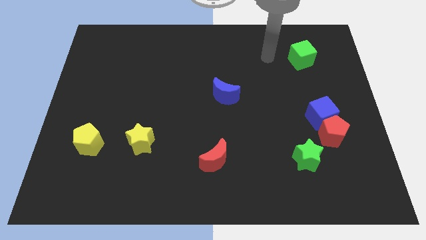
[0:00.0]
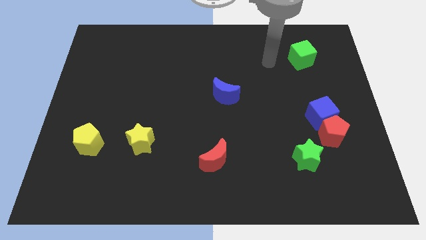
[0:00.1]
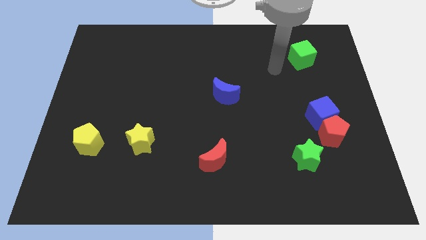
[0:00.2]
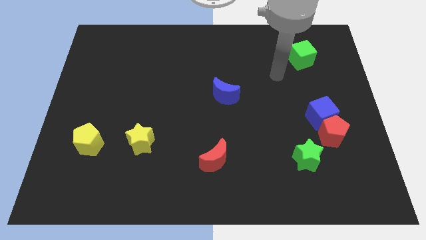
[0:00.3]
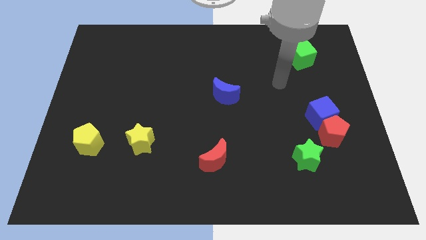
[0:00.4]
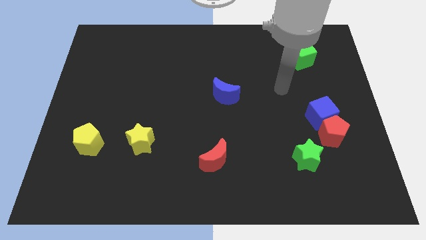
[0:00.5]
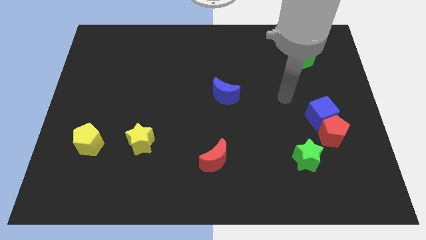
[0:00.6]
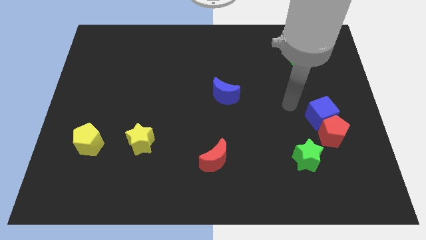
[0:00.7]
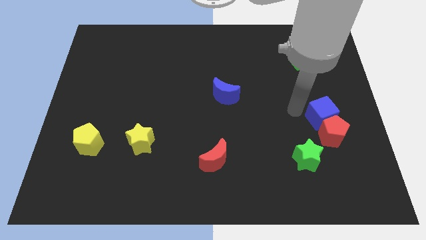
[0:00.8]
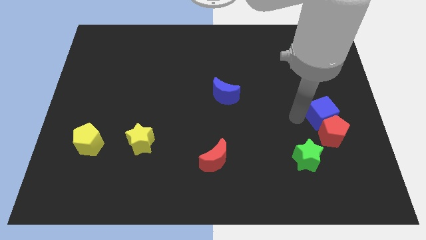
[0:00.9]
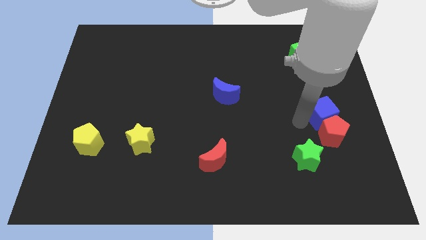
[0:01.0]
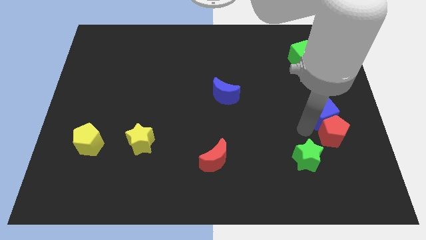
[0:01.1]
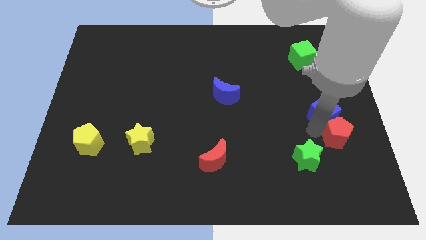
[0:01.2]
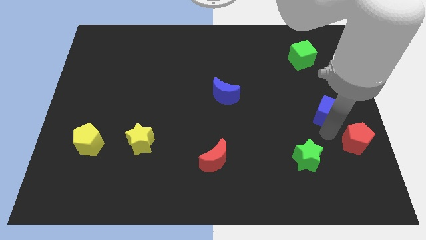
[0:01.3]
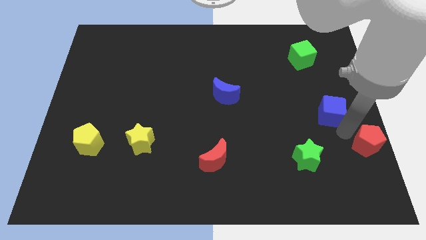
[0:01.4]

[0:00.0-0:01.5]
pull the blue cube apart from the red pentagon

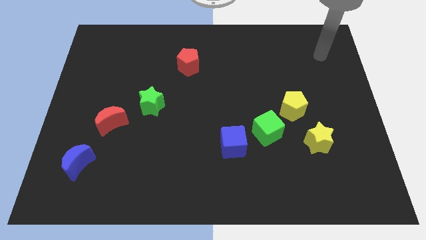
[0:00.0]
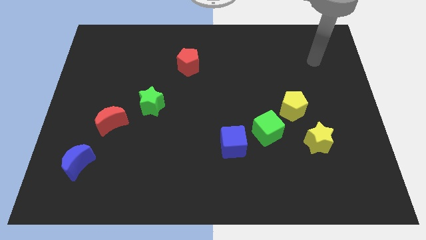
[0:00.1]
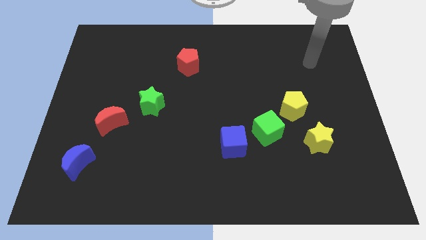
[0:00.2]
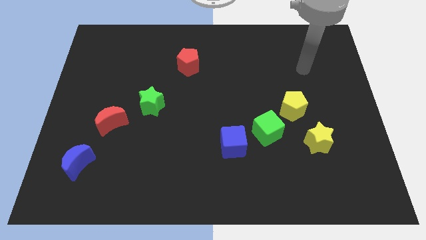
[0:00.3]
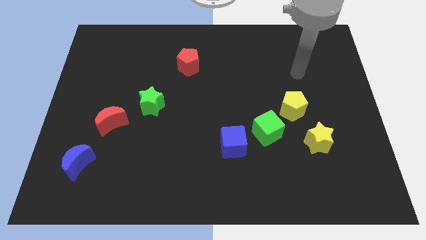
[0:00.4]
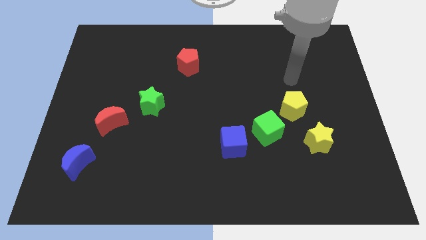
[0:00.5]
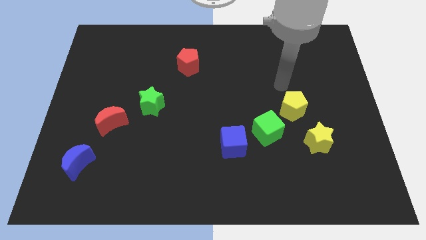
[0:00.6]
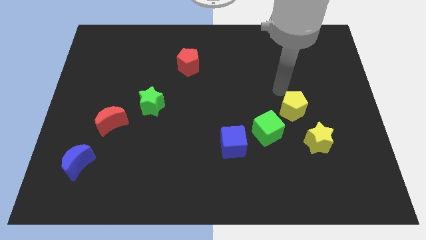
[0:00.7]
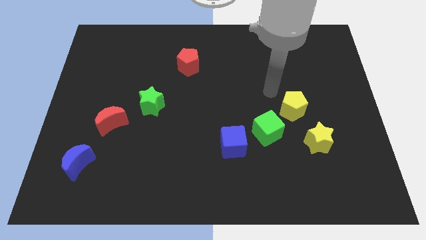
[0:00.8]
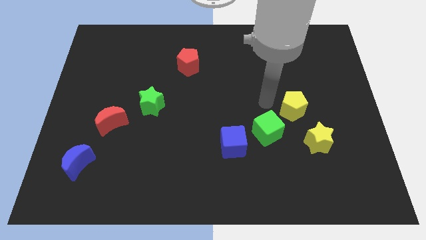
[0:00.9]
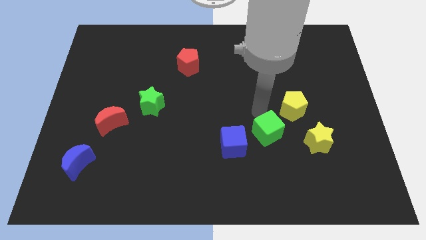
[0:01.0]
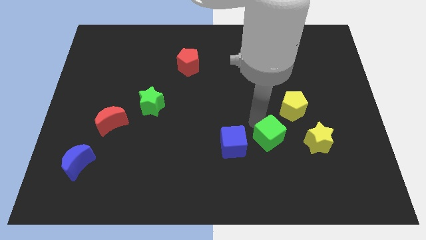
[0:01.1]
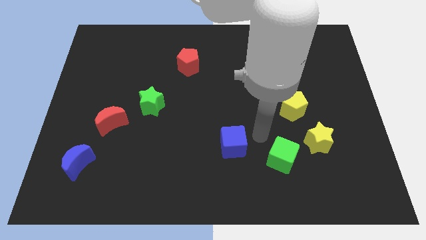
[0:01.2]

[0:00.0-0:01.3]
move the blue cube away from the green cube

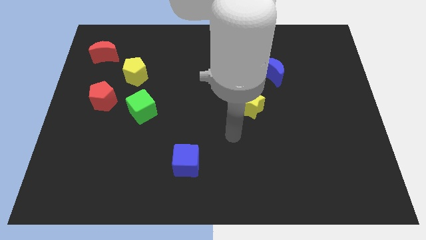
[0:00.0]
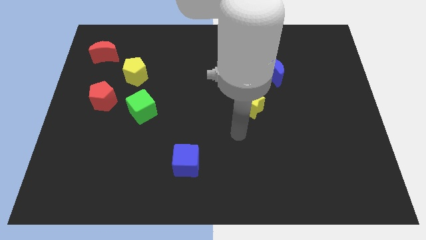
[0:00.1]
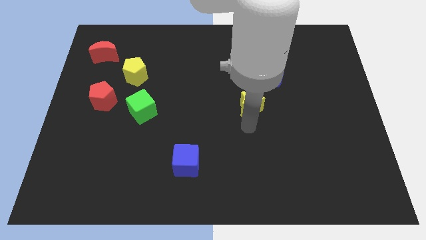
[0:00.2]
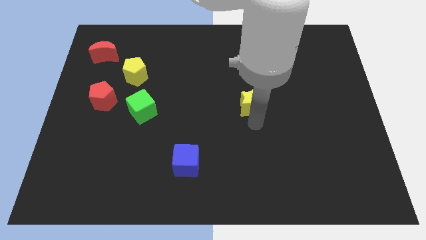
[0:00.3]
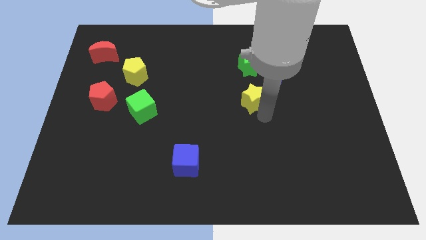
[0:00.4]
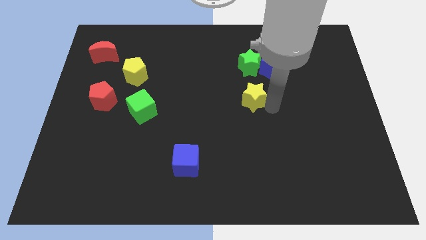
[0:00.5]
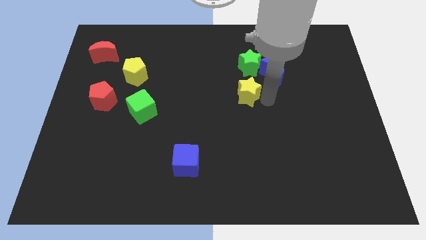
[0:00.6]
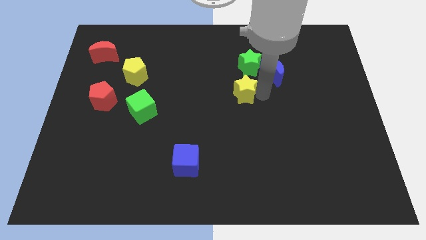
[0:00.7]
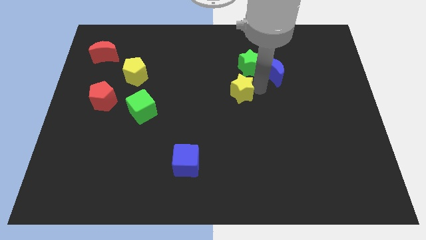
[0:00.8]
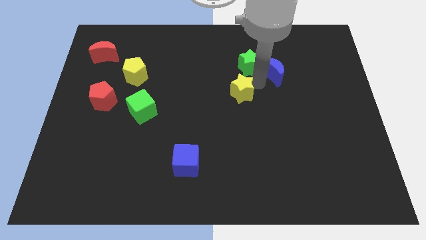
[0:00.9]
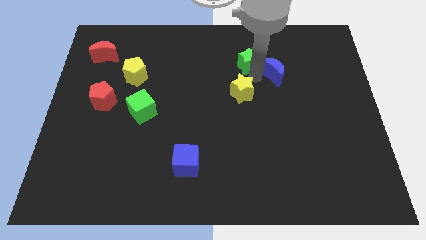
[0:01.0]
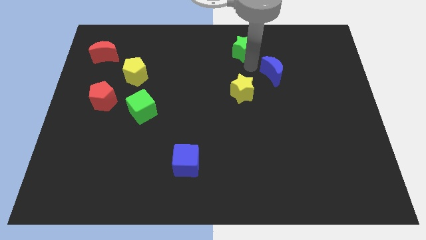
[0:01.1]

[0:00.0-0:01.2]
separate the blue moon from the green star

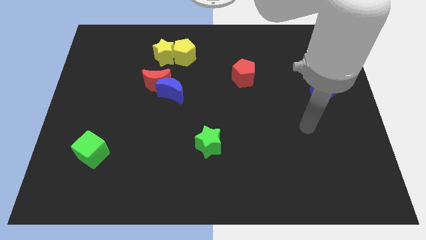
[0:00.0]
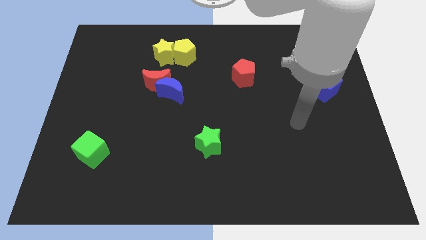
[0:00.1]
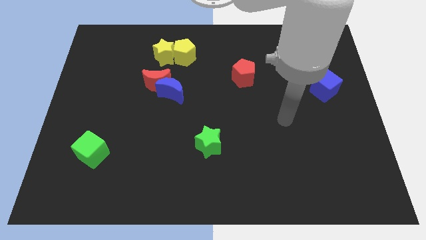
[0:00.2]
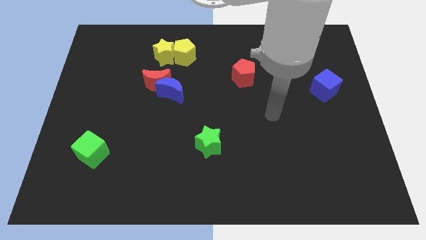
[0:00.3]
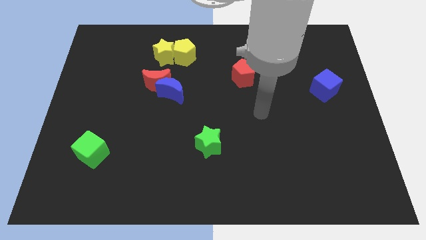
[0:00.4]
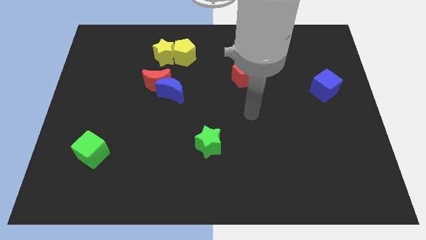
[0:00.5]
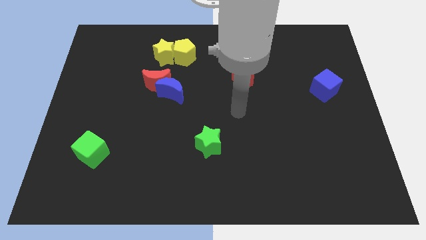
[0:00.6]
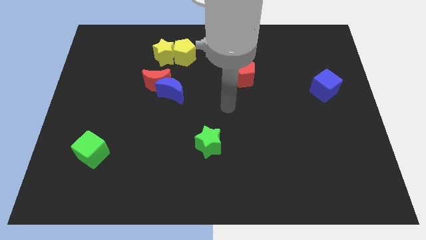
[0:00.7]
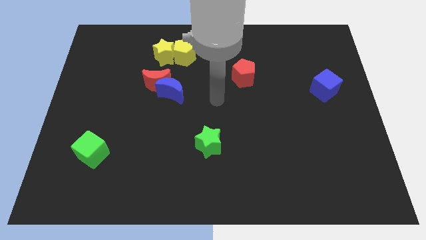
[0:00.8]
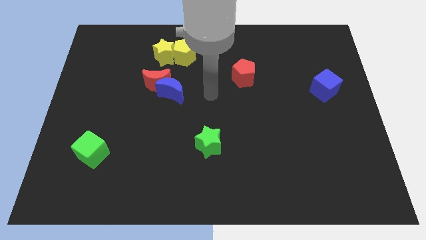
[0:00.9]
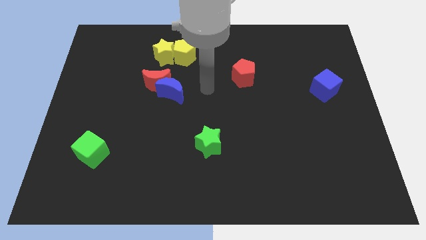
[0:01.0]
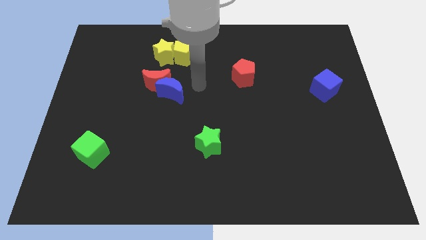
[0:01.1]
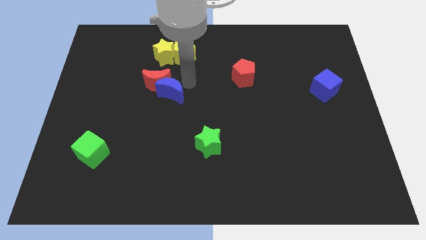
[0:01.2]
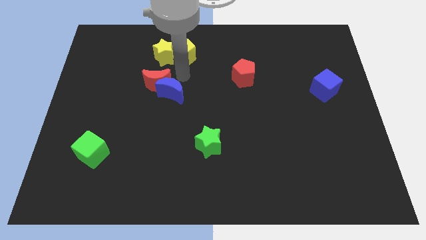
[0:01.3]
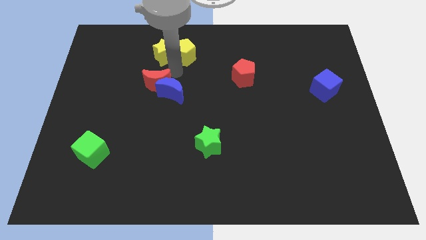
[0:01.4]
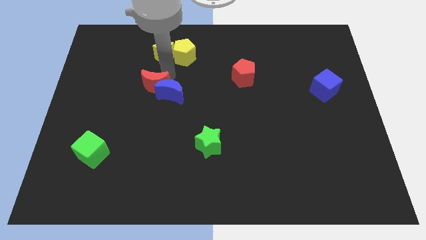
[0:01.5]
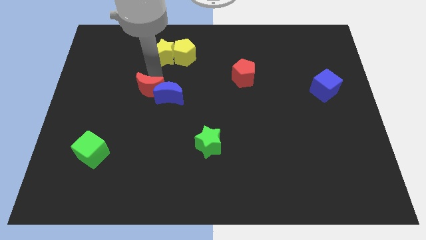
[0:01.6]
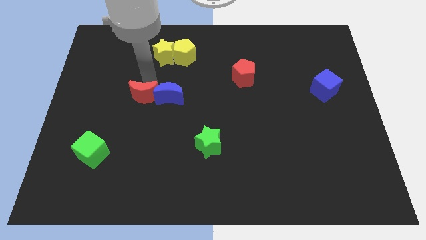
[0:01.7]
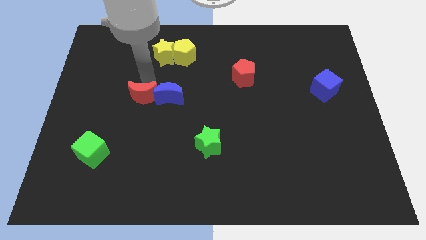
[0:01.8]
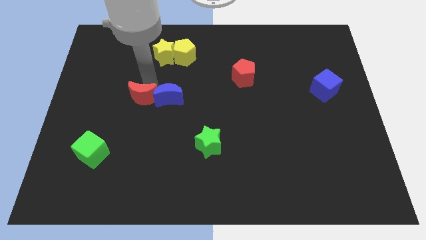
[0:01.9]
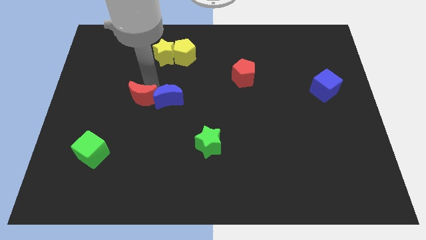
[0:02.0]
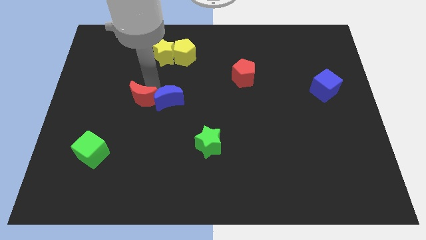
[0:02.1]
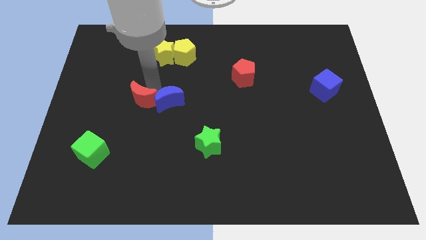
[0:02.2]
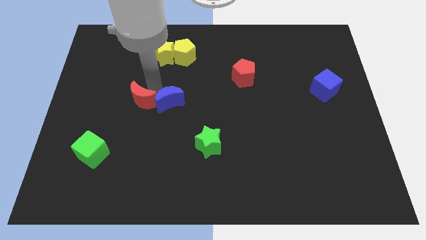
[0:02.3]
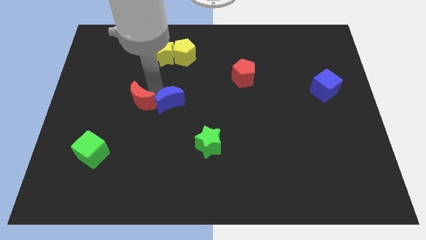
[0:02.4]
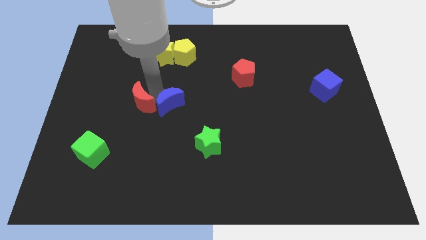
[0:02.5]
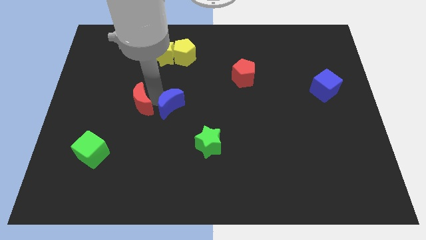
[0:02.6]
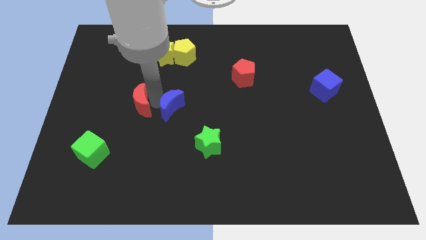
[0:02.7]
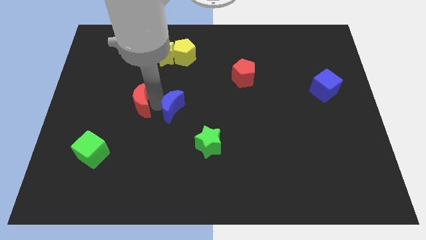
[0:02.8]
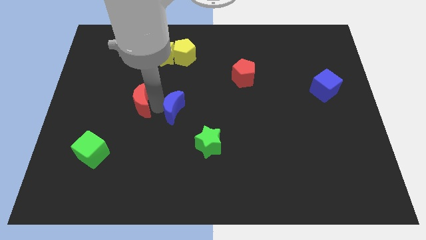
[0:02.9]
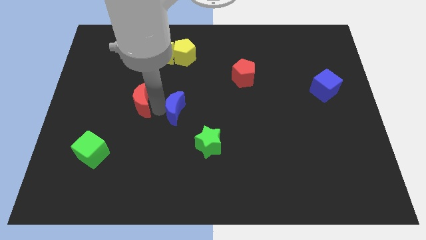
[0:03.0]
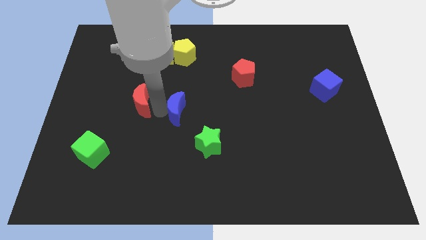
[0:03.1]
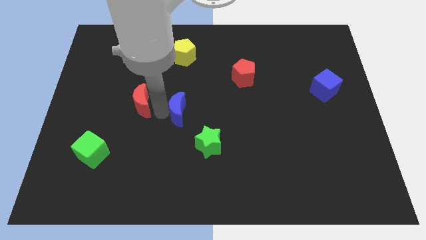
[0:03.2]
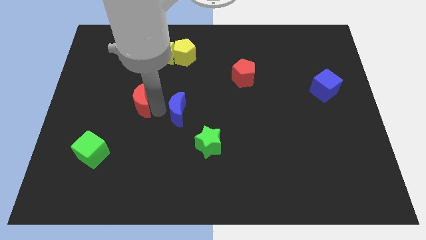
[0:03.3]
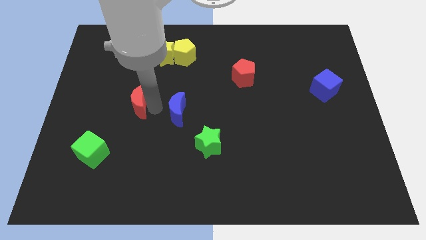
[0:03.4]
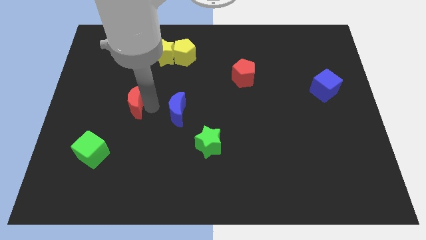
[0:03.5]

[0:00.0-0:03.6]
pull the blue moon apart from the red moon

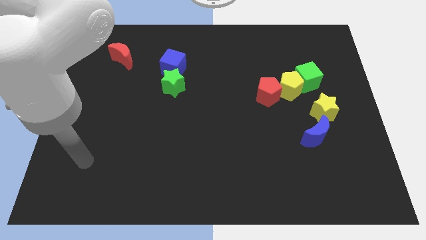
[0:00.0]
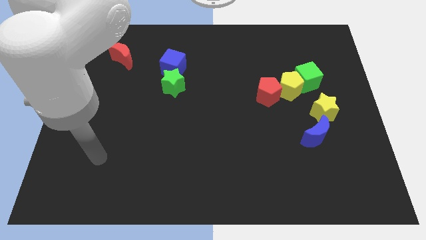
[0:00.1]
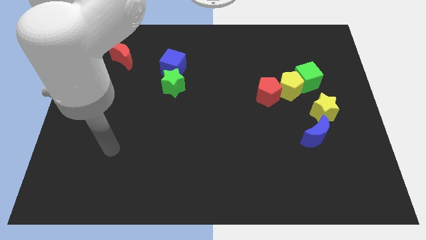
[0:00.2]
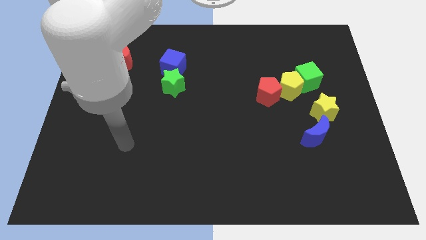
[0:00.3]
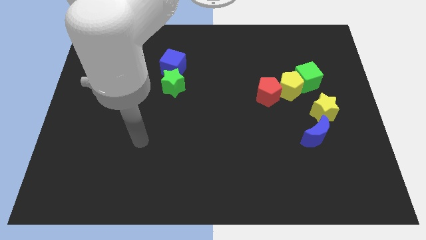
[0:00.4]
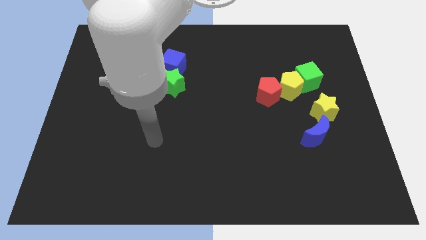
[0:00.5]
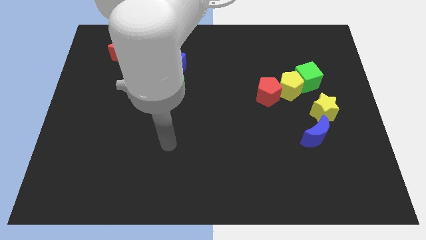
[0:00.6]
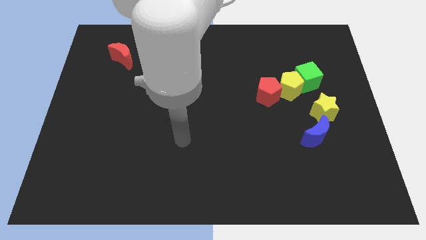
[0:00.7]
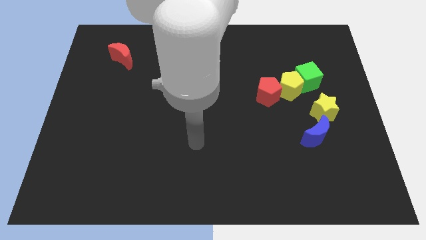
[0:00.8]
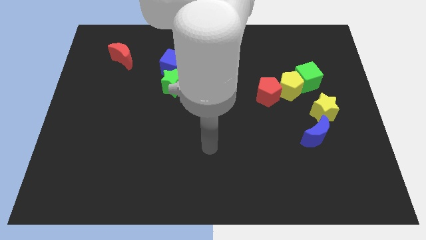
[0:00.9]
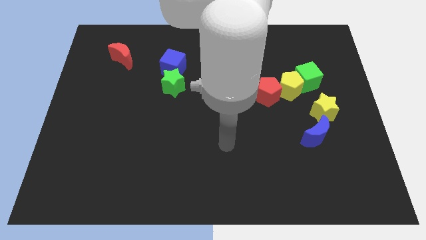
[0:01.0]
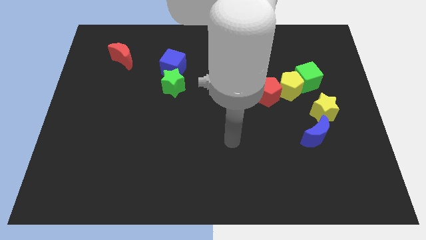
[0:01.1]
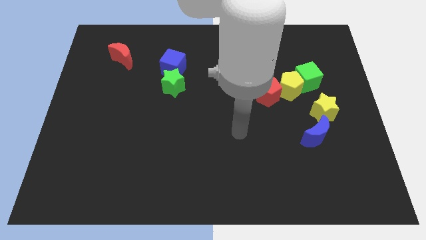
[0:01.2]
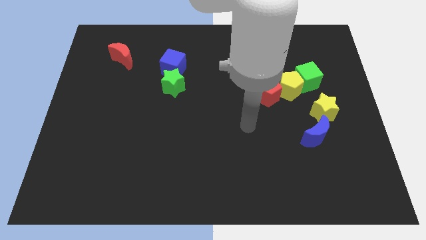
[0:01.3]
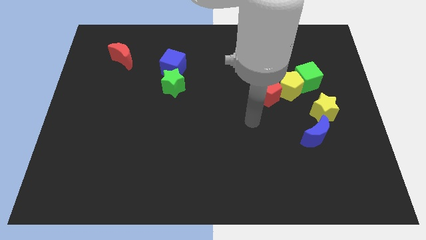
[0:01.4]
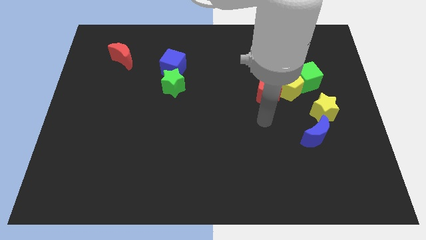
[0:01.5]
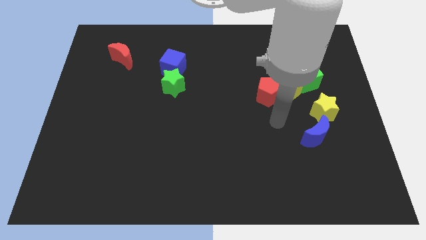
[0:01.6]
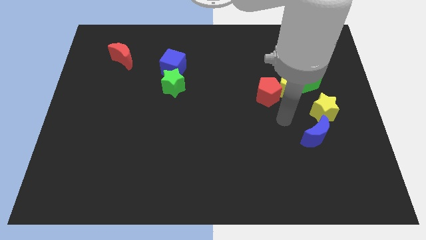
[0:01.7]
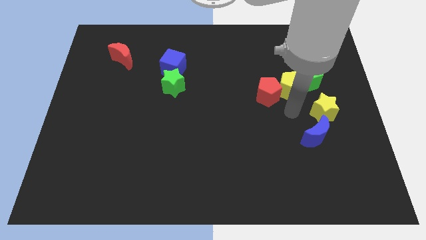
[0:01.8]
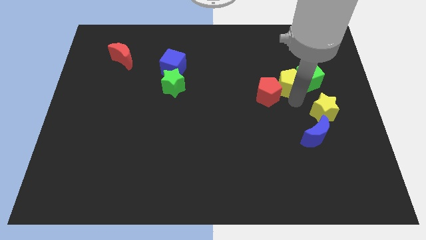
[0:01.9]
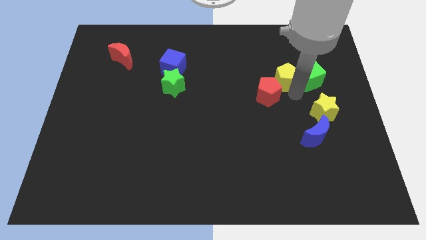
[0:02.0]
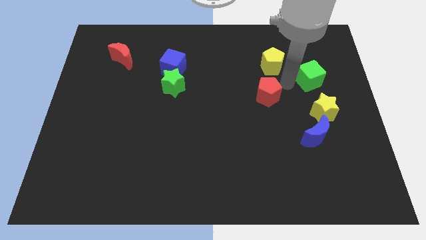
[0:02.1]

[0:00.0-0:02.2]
pull the red pentagon apart from the yellow pentagon
